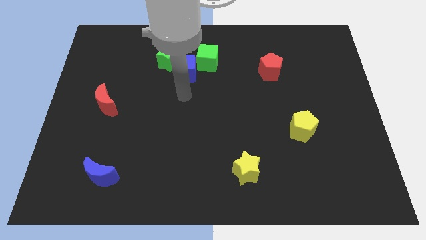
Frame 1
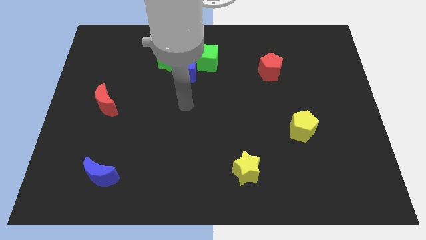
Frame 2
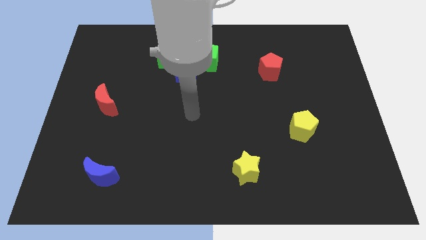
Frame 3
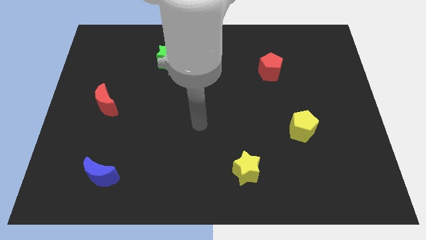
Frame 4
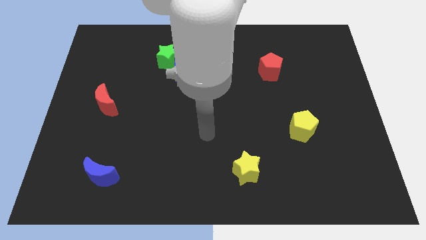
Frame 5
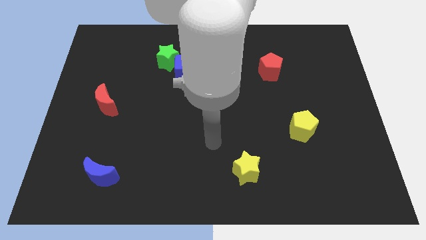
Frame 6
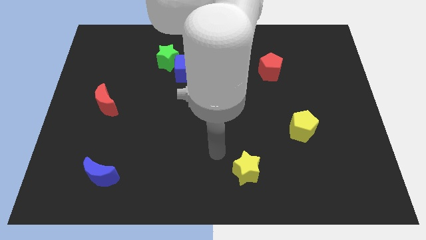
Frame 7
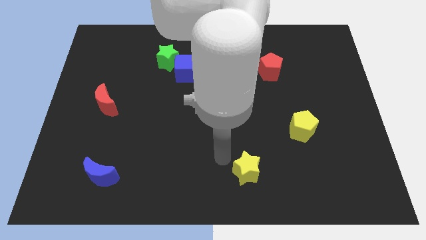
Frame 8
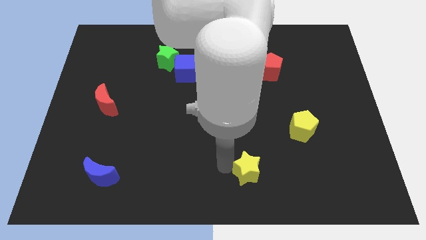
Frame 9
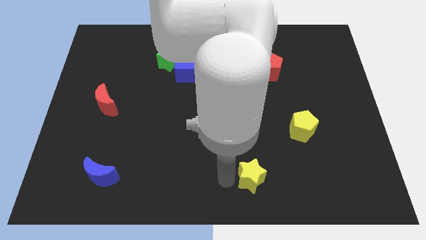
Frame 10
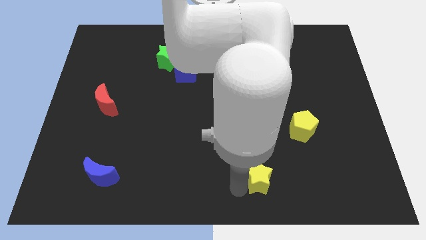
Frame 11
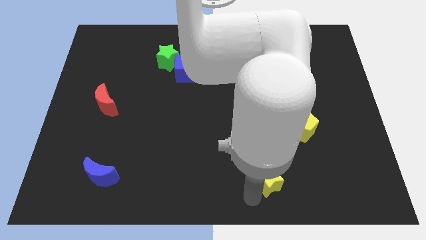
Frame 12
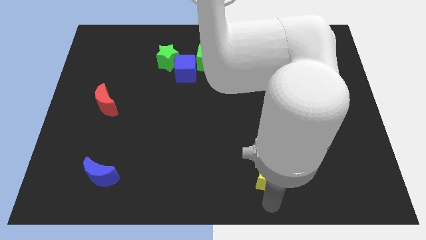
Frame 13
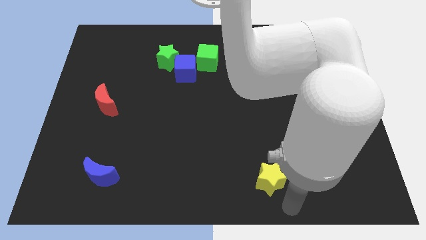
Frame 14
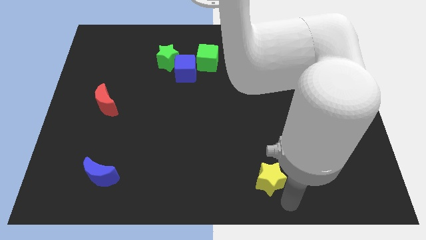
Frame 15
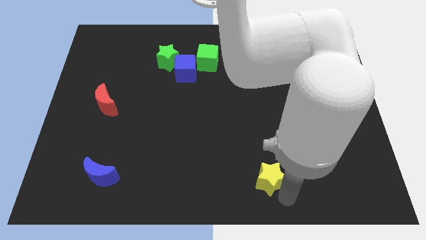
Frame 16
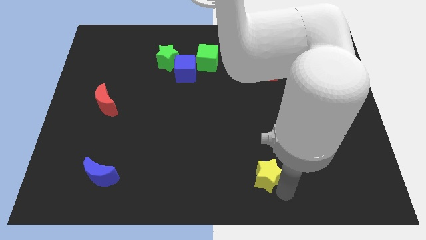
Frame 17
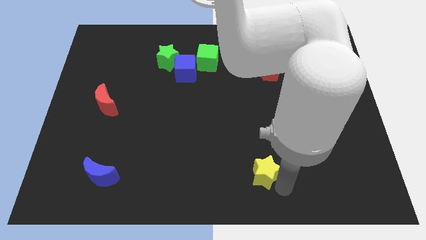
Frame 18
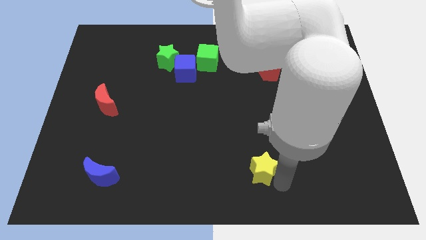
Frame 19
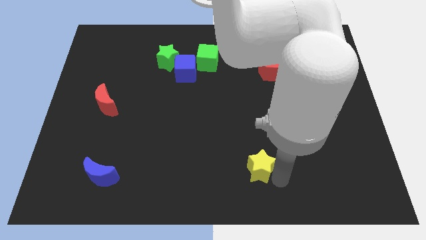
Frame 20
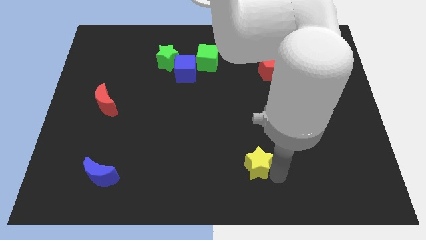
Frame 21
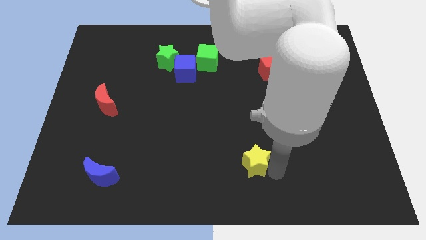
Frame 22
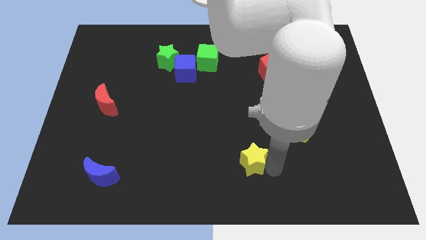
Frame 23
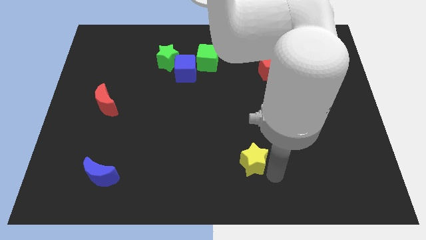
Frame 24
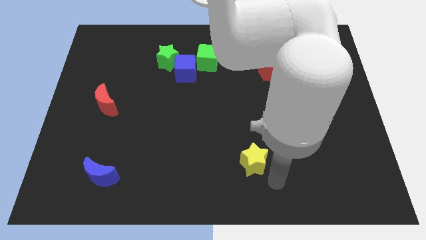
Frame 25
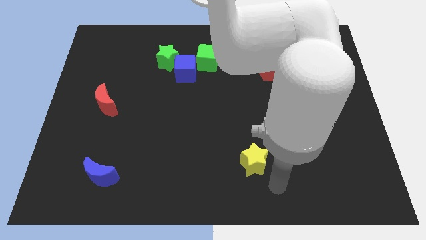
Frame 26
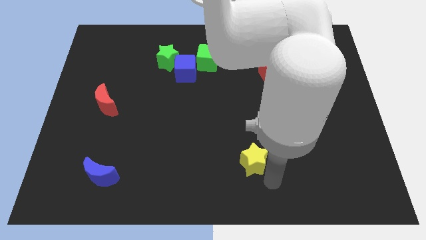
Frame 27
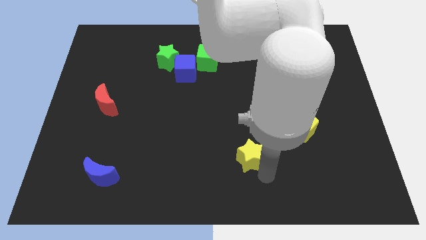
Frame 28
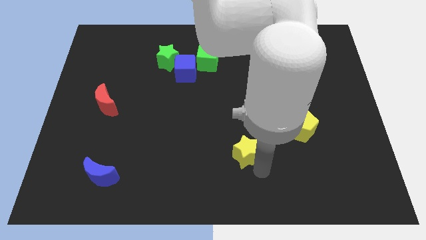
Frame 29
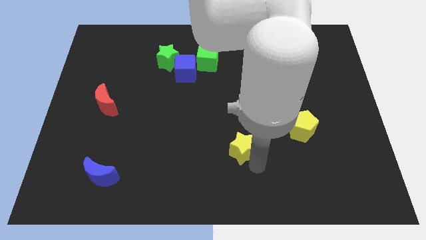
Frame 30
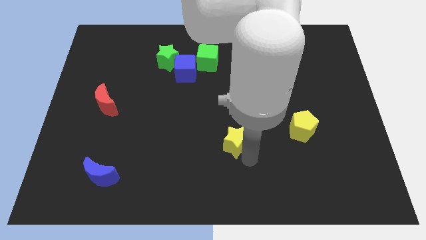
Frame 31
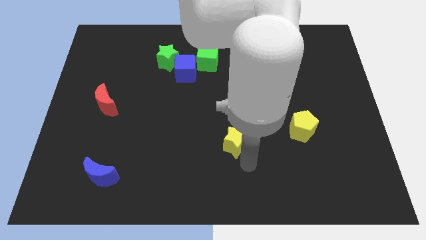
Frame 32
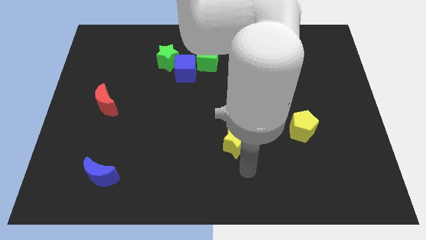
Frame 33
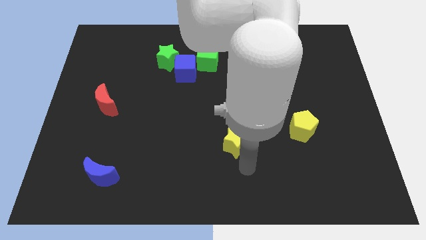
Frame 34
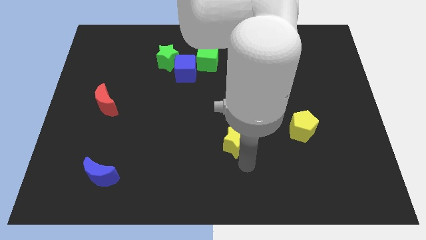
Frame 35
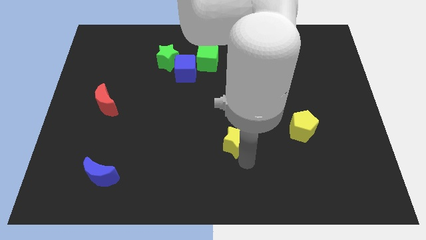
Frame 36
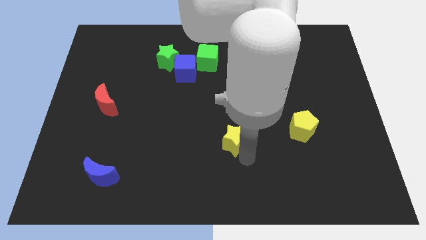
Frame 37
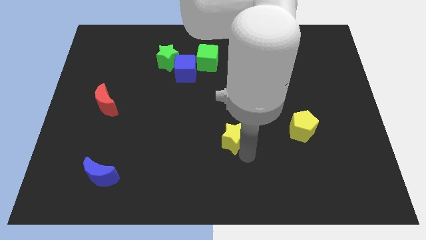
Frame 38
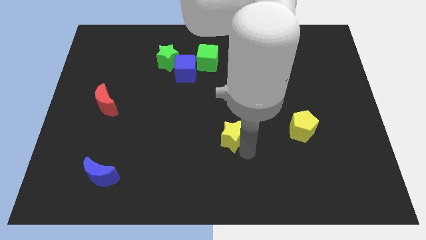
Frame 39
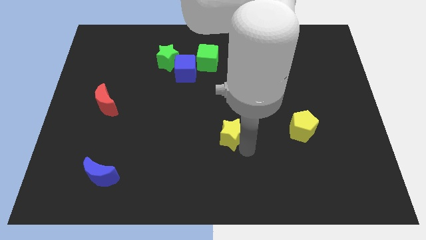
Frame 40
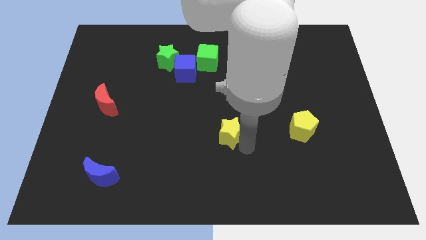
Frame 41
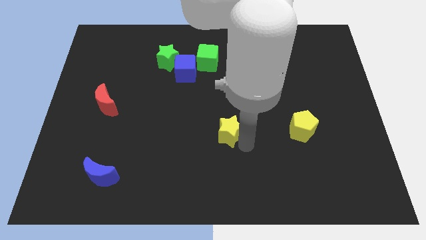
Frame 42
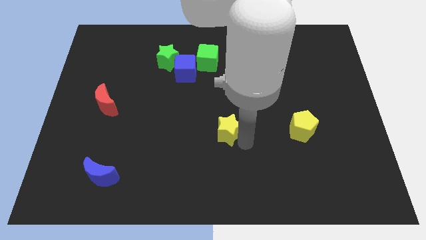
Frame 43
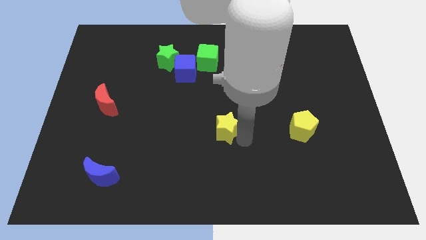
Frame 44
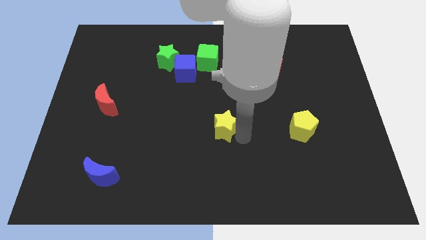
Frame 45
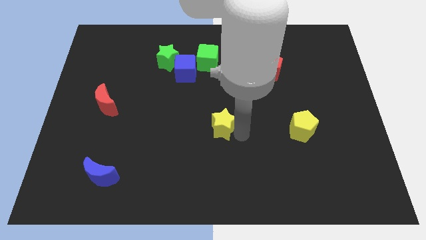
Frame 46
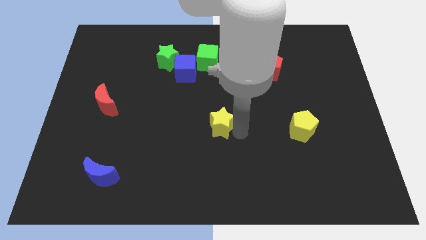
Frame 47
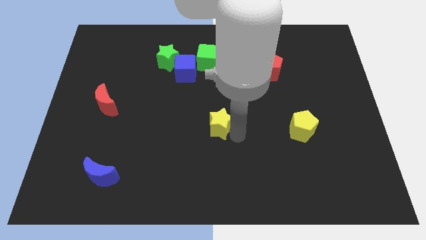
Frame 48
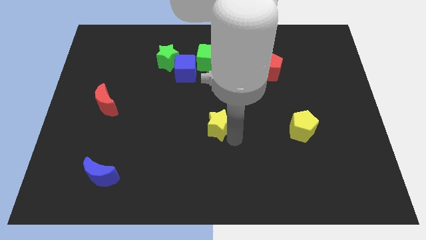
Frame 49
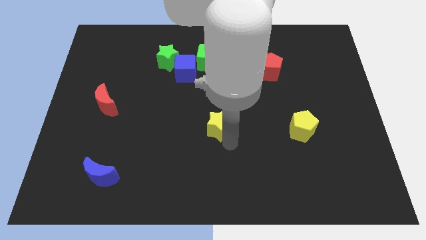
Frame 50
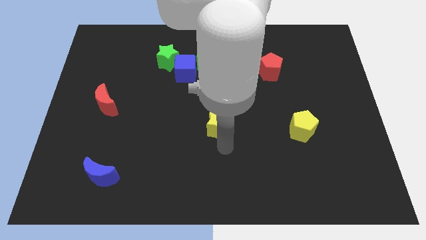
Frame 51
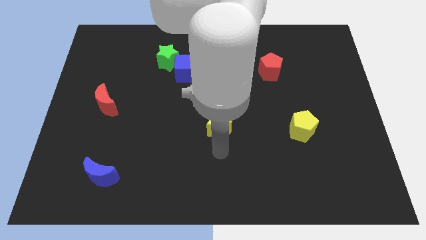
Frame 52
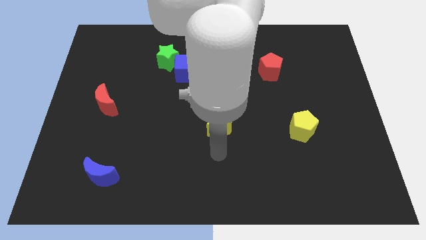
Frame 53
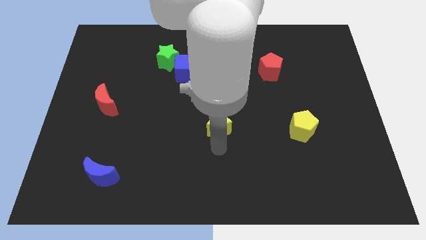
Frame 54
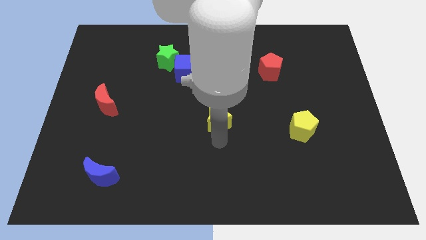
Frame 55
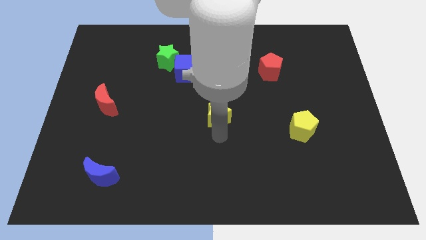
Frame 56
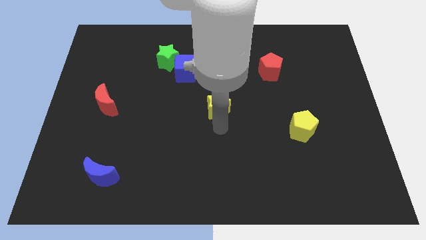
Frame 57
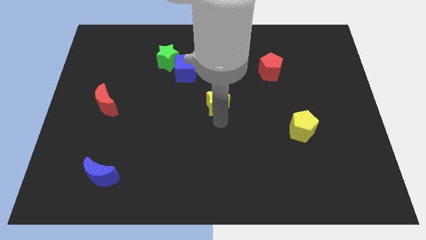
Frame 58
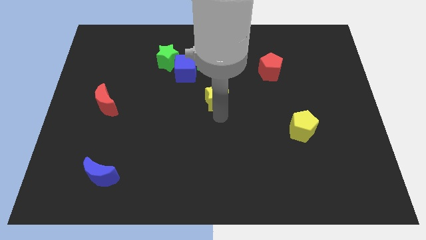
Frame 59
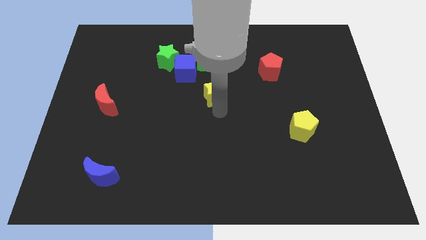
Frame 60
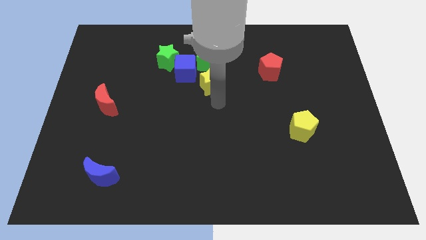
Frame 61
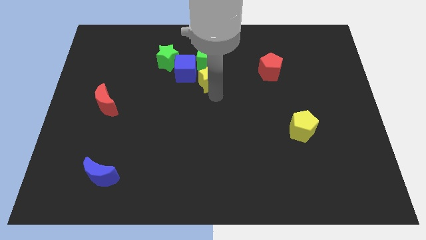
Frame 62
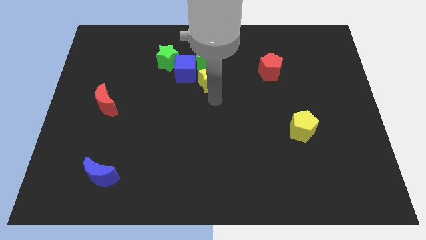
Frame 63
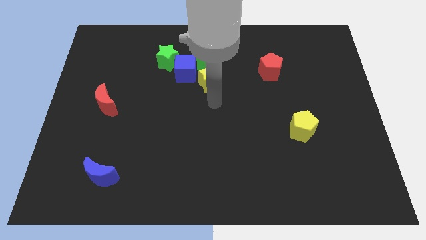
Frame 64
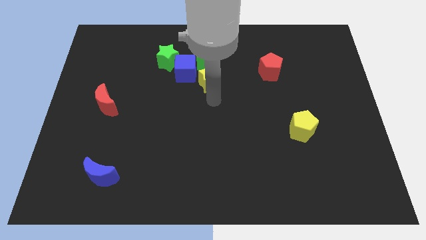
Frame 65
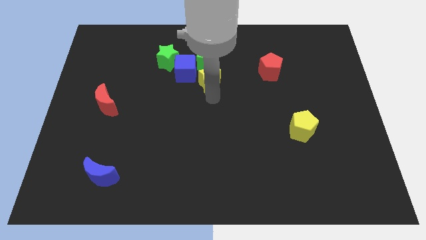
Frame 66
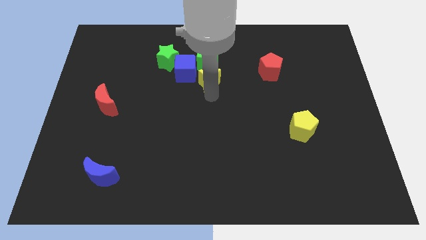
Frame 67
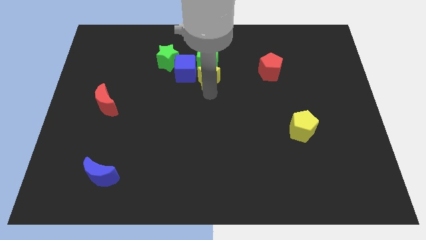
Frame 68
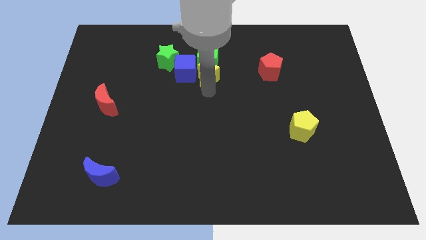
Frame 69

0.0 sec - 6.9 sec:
push the yellow star towards the green cube

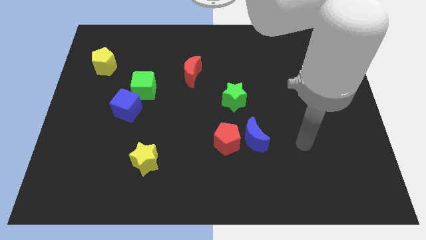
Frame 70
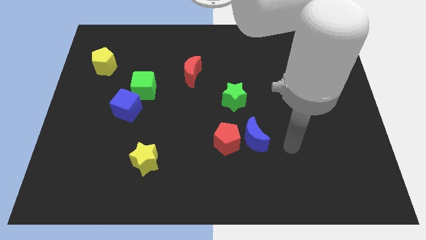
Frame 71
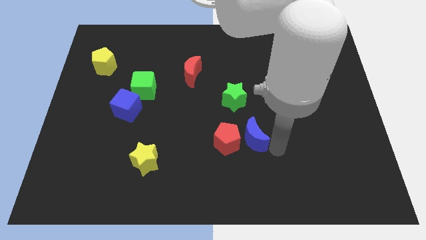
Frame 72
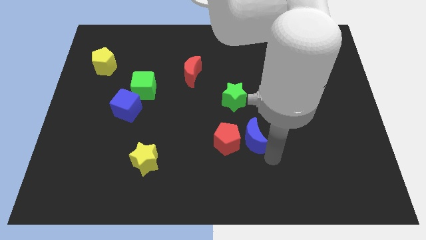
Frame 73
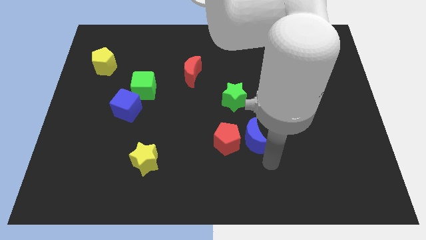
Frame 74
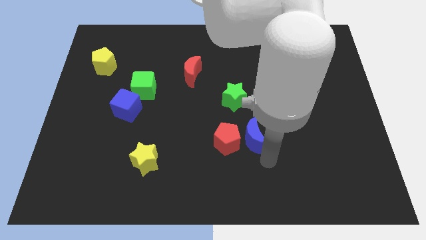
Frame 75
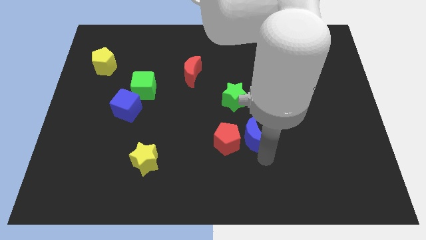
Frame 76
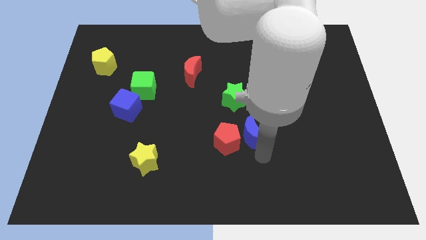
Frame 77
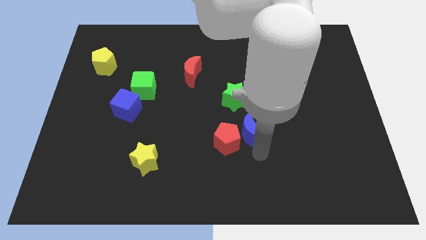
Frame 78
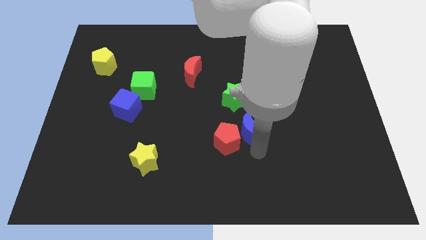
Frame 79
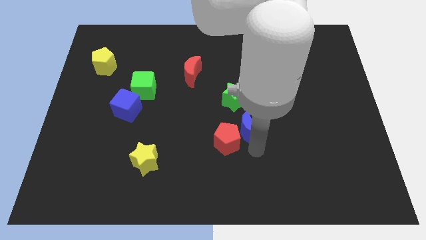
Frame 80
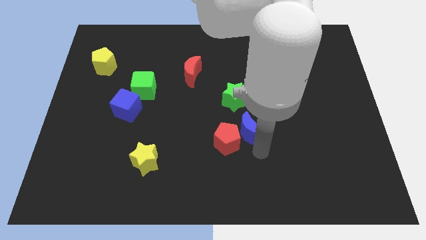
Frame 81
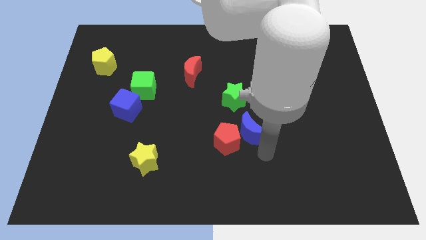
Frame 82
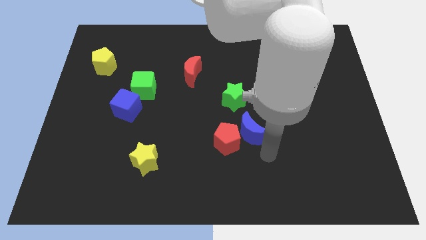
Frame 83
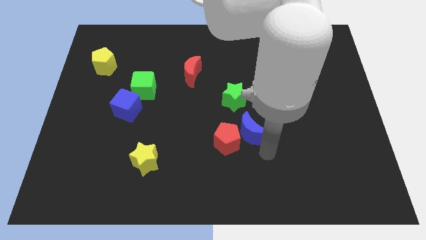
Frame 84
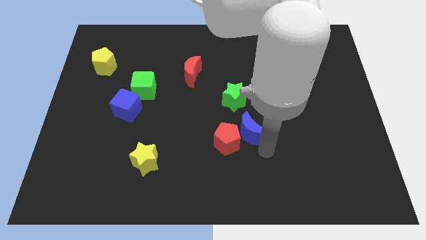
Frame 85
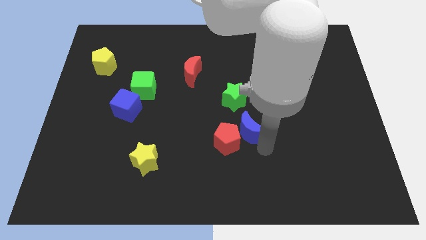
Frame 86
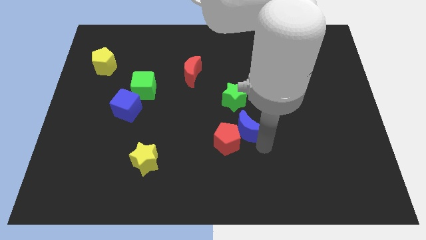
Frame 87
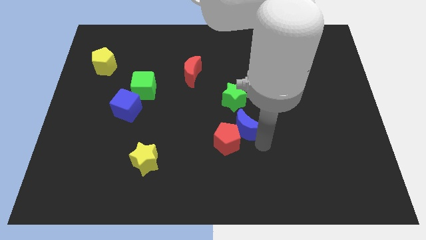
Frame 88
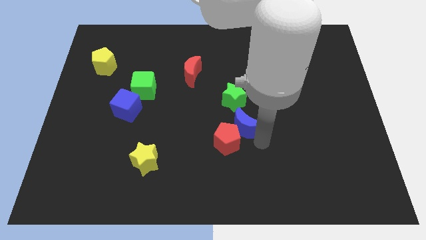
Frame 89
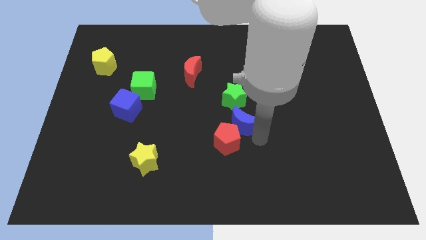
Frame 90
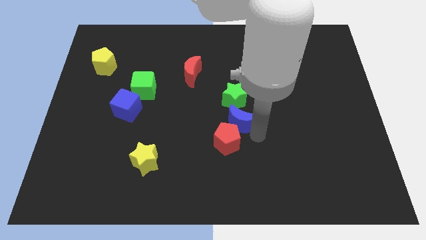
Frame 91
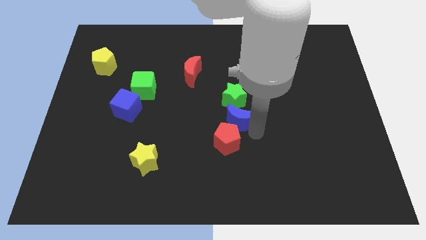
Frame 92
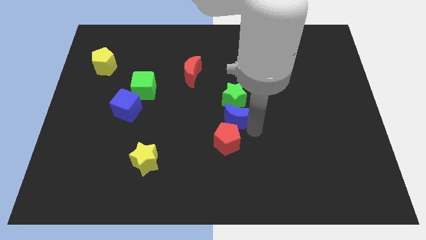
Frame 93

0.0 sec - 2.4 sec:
put the blue moon towards the green star
